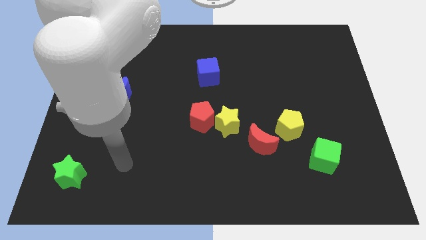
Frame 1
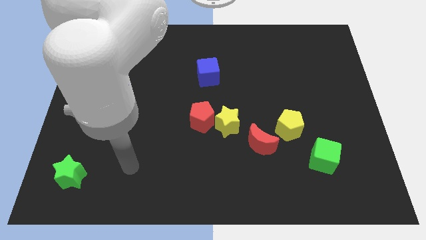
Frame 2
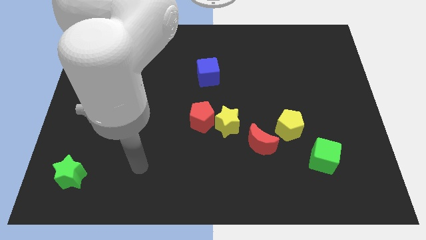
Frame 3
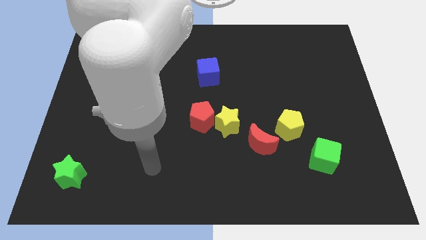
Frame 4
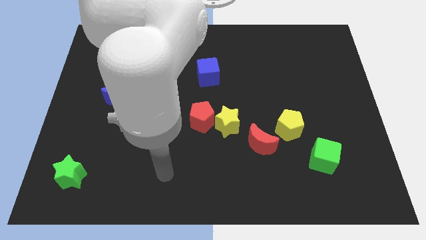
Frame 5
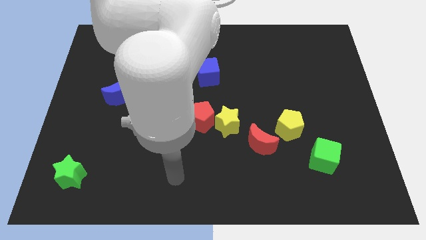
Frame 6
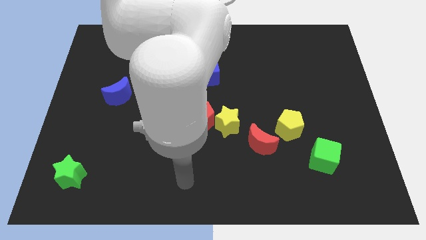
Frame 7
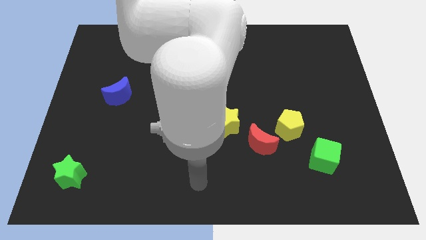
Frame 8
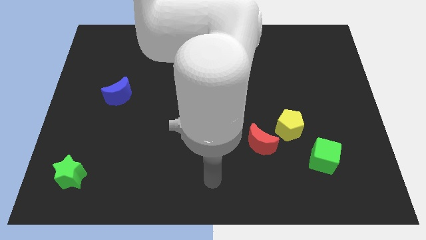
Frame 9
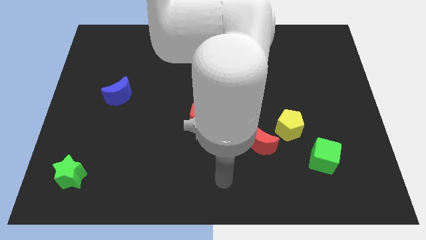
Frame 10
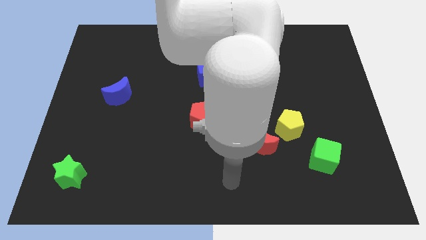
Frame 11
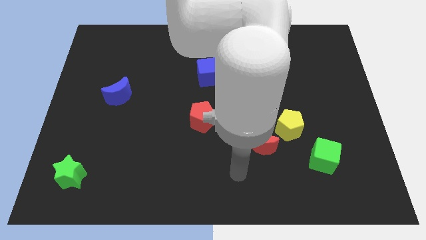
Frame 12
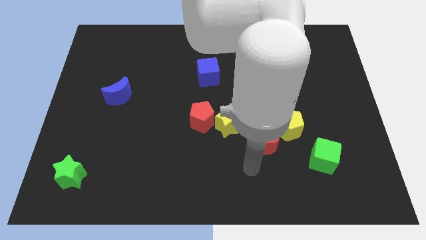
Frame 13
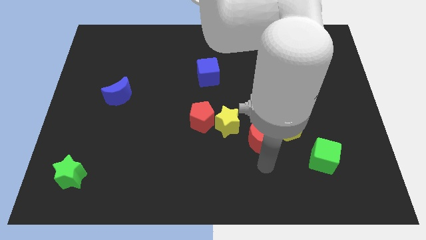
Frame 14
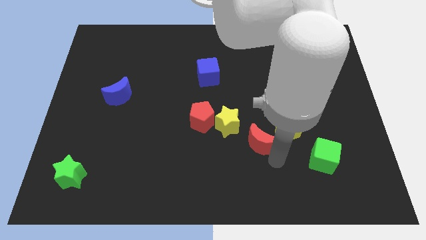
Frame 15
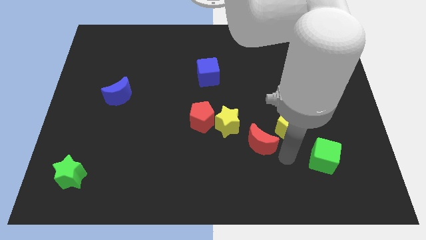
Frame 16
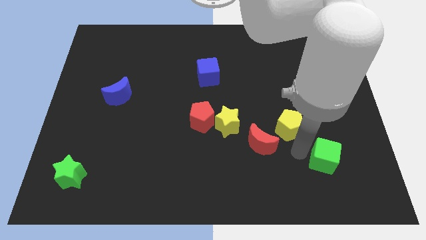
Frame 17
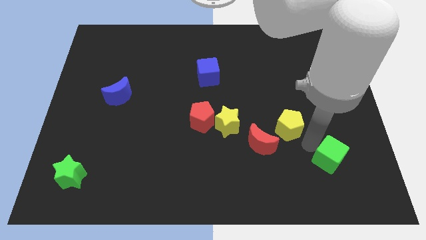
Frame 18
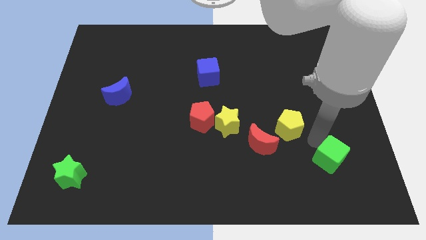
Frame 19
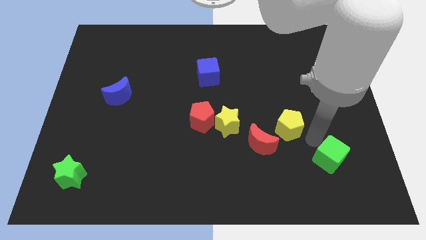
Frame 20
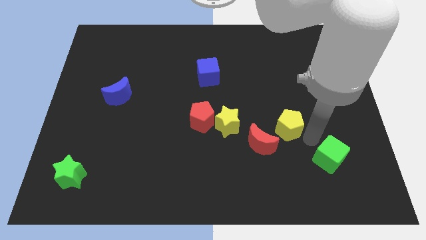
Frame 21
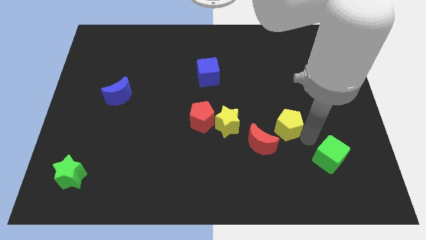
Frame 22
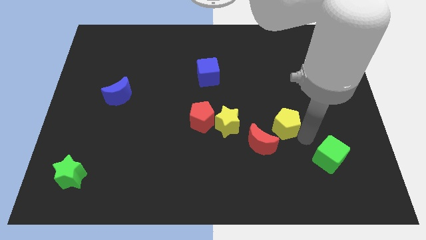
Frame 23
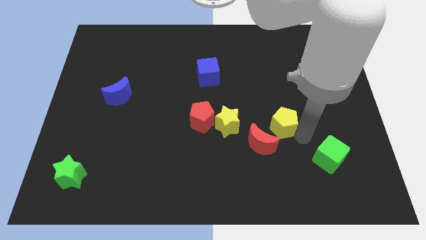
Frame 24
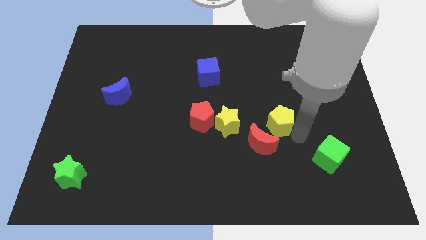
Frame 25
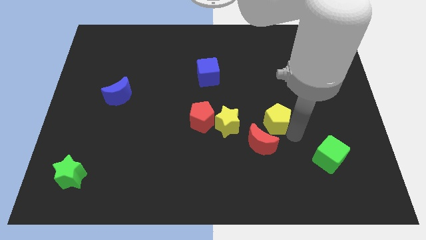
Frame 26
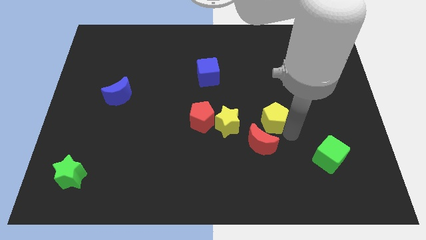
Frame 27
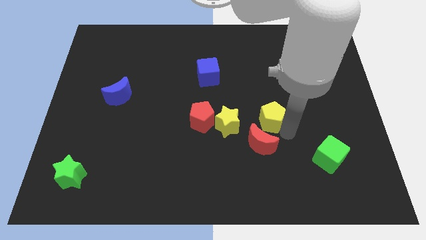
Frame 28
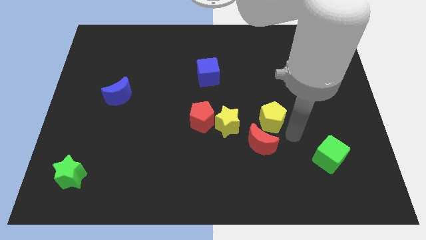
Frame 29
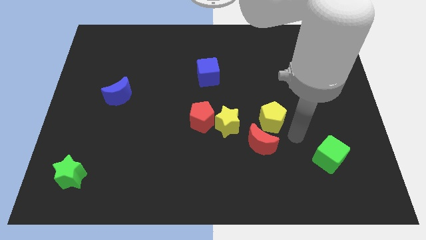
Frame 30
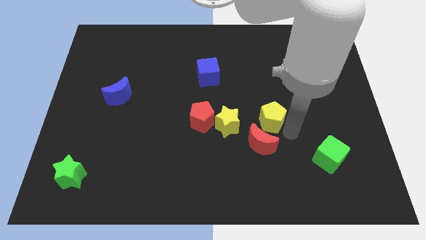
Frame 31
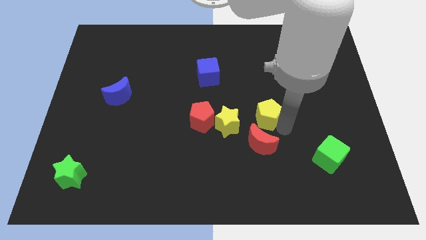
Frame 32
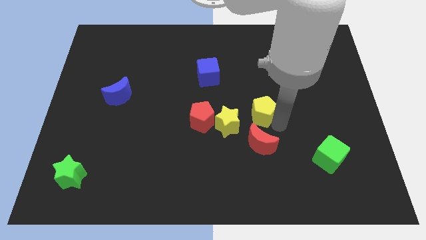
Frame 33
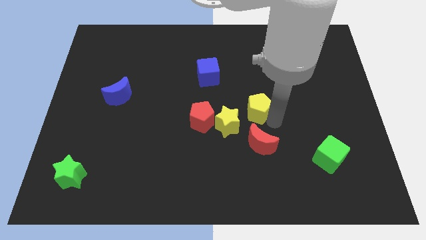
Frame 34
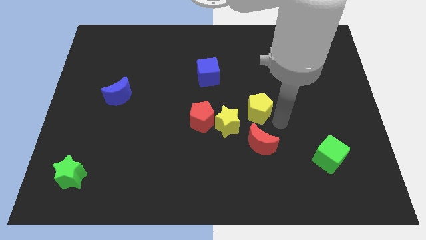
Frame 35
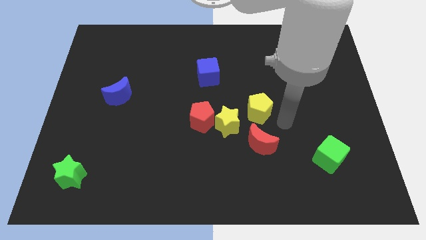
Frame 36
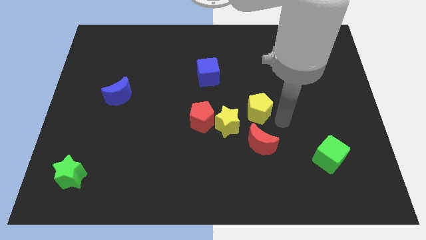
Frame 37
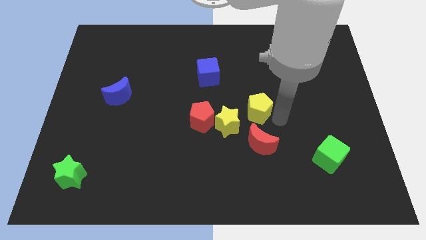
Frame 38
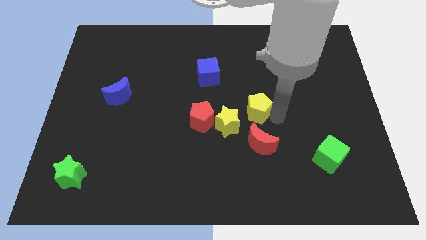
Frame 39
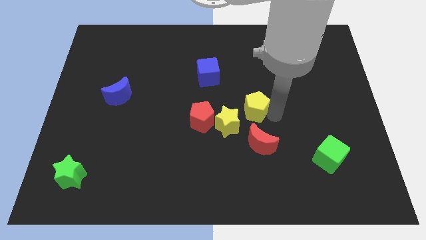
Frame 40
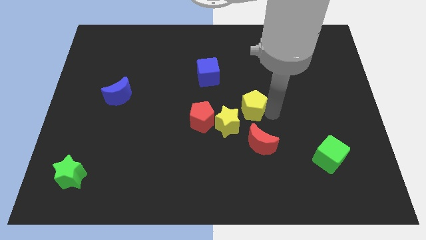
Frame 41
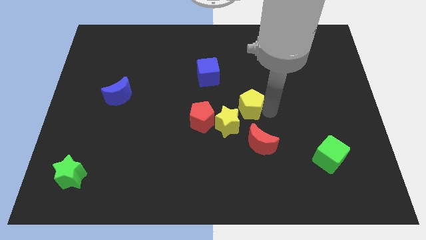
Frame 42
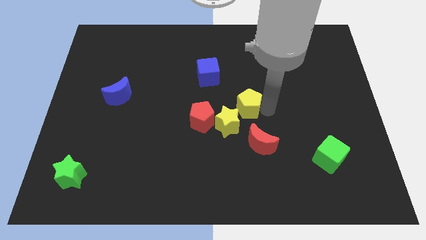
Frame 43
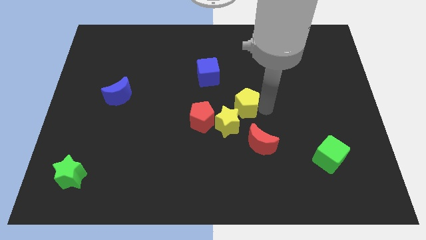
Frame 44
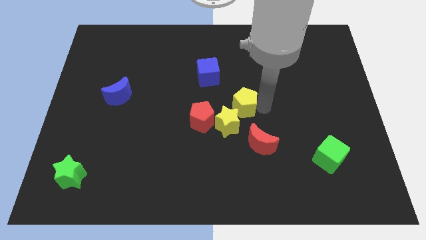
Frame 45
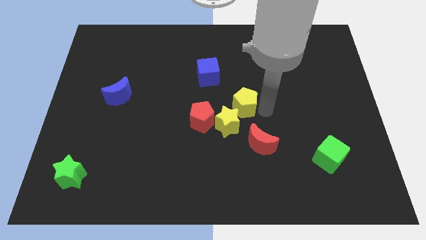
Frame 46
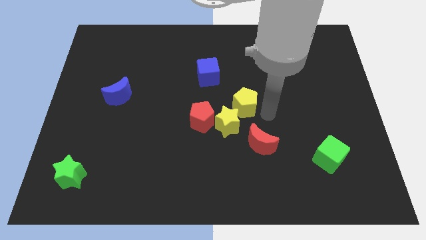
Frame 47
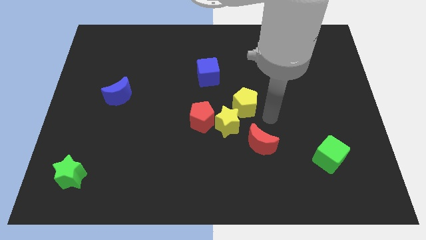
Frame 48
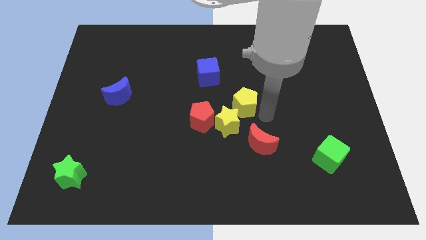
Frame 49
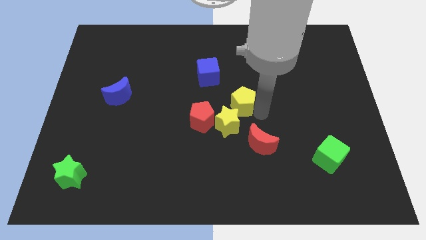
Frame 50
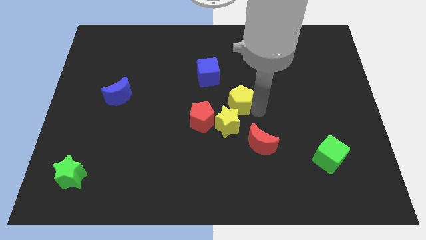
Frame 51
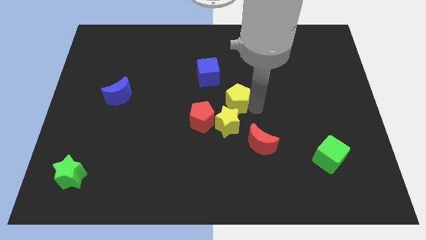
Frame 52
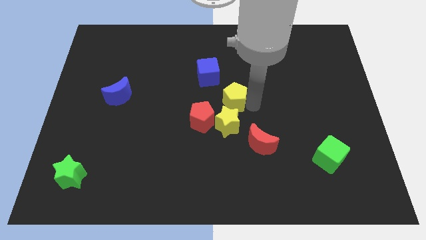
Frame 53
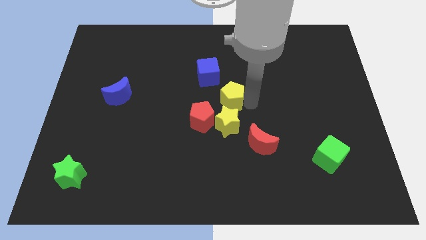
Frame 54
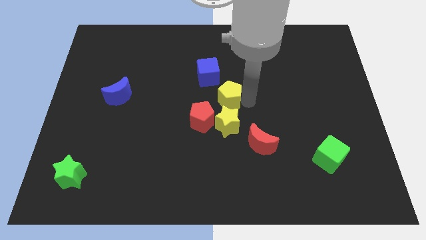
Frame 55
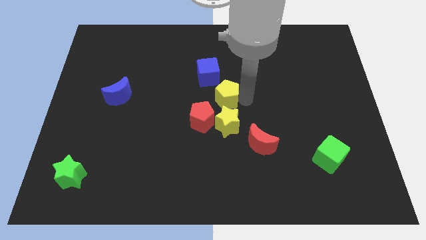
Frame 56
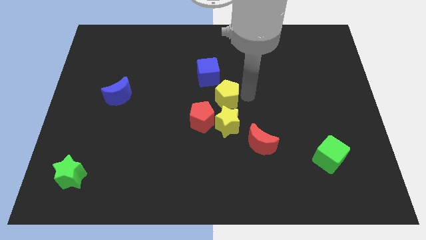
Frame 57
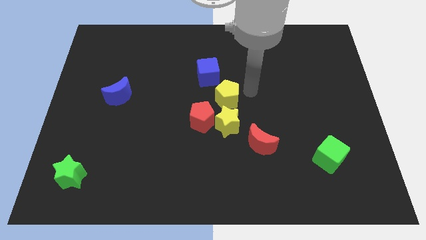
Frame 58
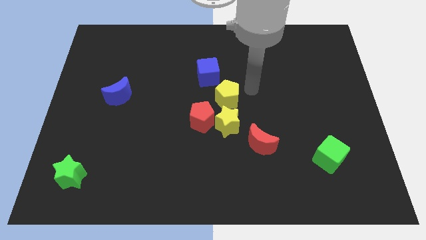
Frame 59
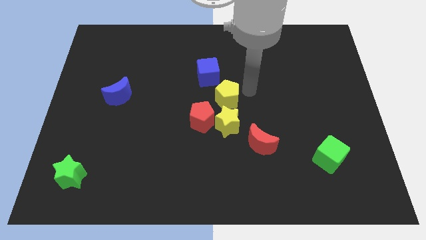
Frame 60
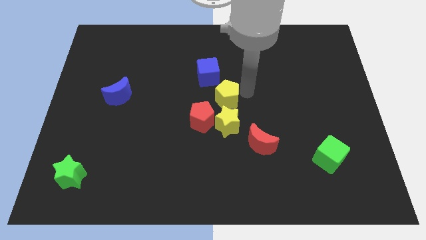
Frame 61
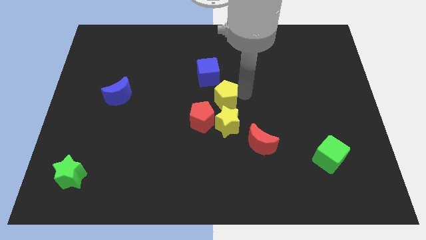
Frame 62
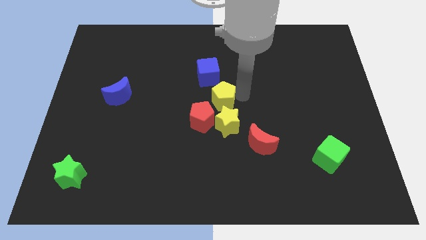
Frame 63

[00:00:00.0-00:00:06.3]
move the yellow pentagon to the top left of the yellow star

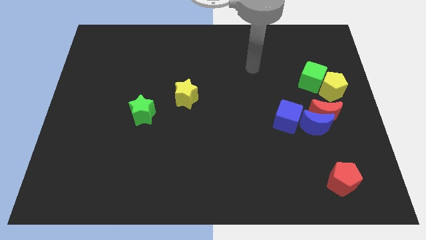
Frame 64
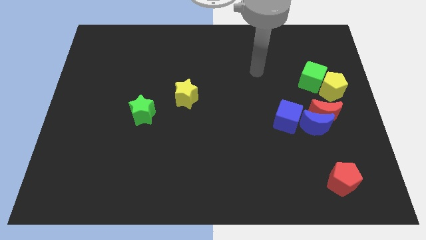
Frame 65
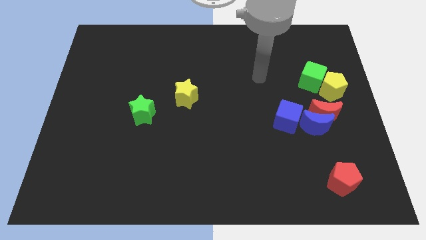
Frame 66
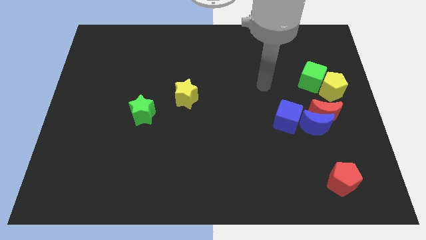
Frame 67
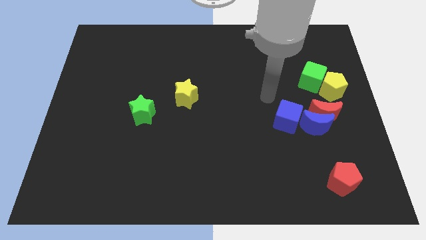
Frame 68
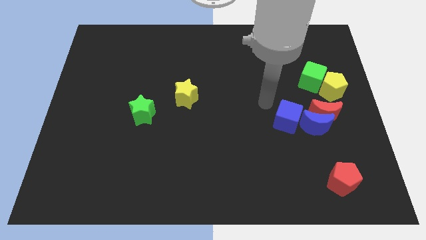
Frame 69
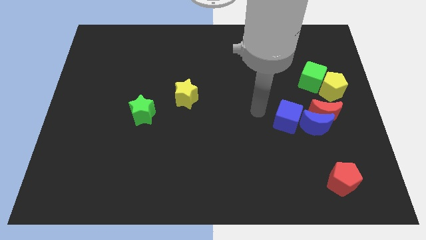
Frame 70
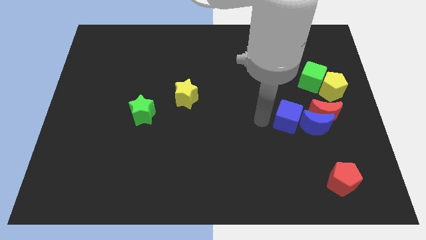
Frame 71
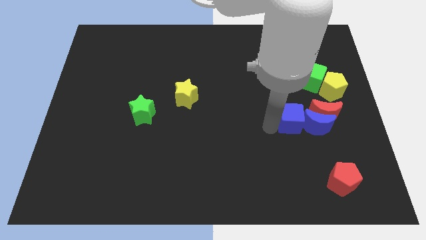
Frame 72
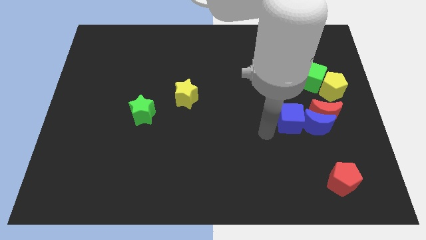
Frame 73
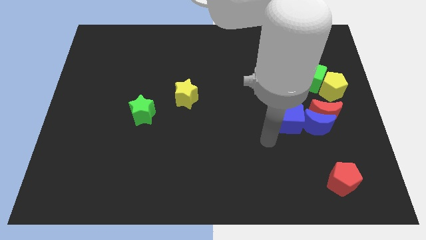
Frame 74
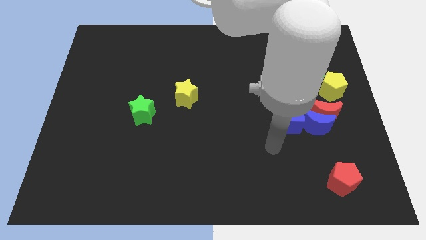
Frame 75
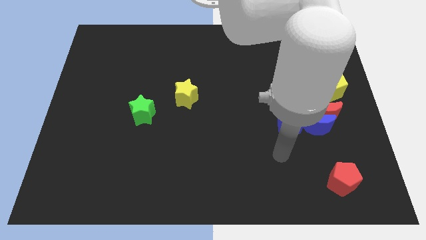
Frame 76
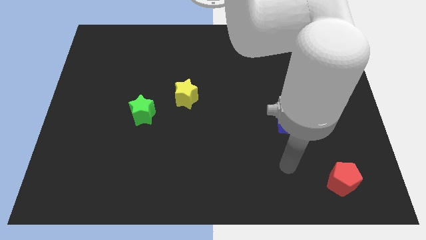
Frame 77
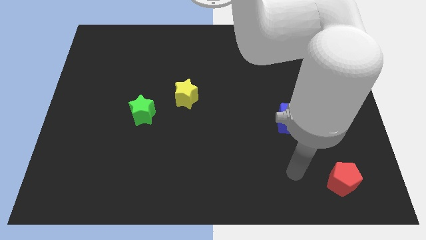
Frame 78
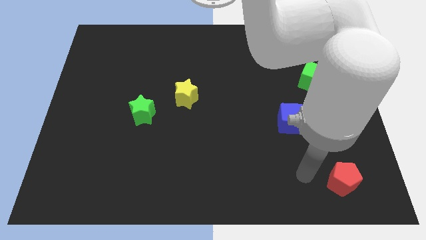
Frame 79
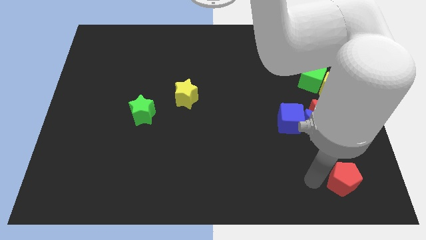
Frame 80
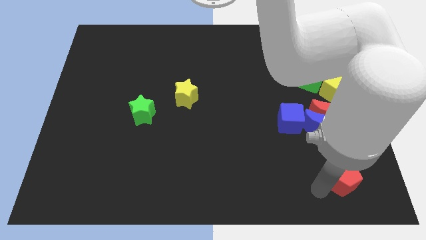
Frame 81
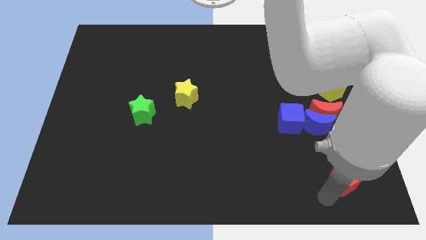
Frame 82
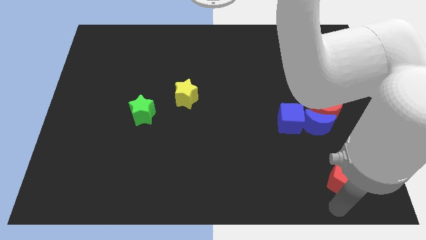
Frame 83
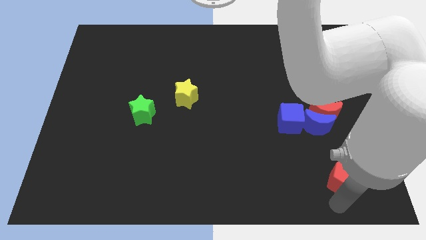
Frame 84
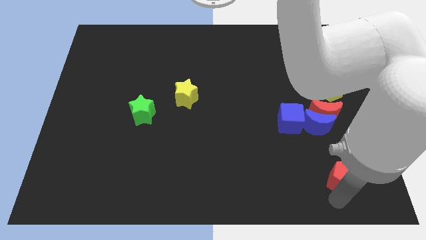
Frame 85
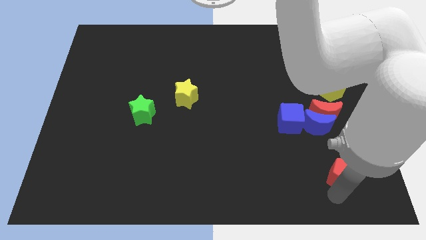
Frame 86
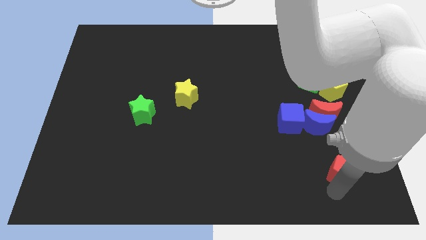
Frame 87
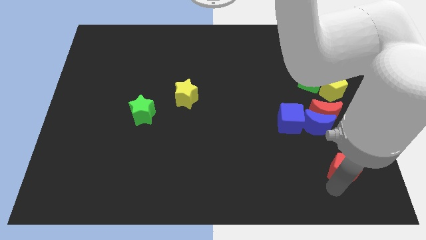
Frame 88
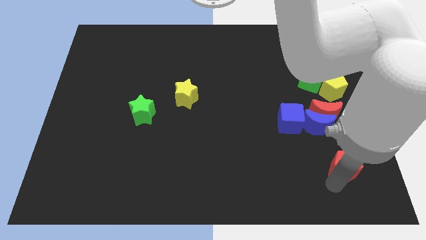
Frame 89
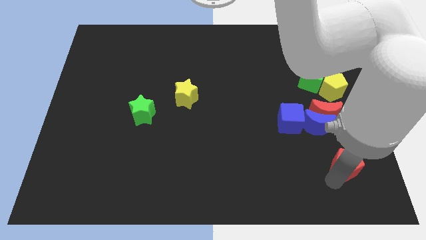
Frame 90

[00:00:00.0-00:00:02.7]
slide the red pentagon diagonally down and to the right of the blue moon
